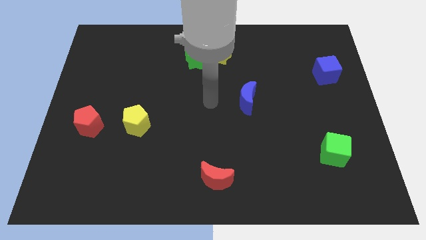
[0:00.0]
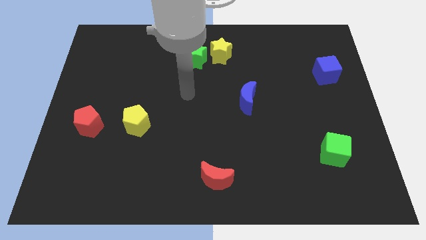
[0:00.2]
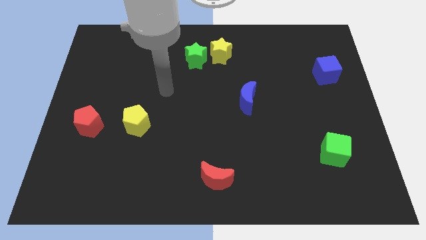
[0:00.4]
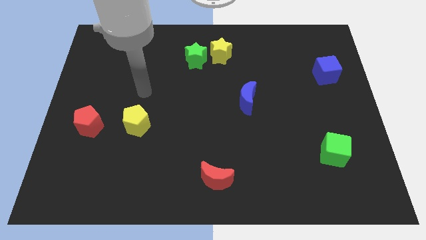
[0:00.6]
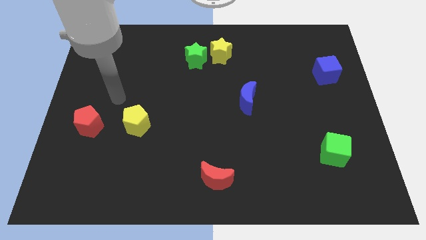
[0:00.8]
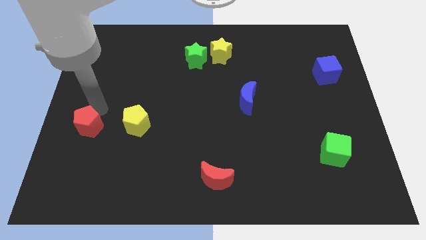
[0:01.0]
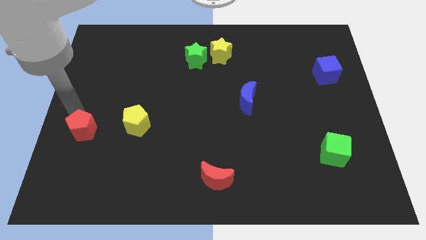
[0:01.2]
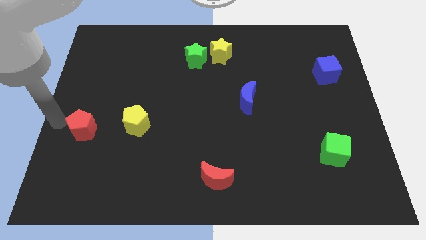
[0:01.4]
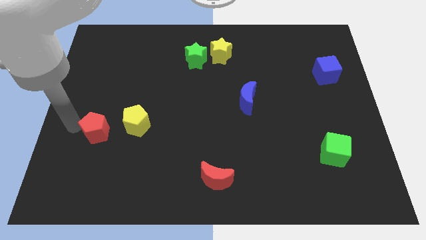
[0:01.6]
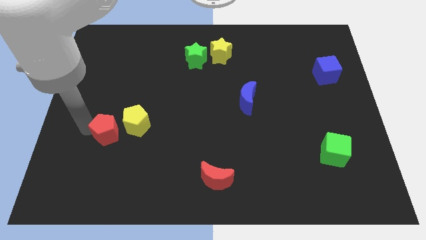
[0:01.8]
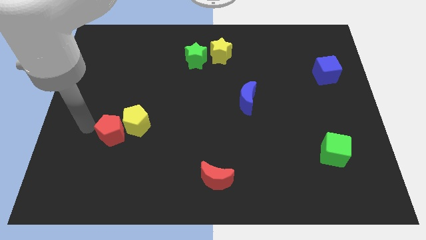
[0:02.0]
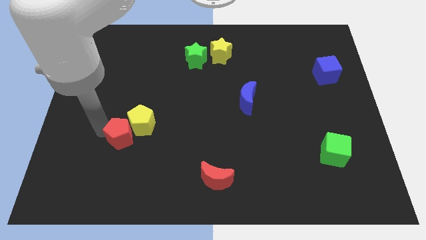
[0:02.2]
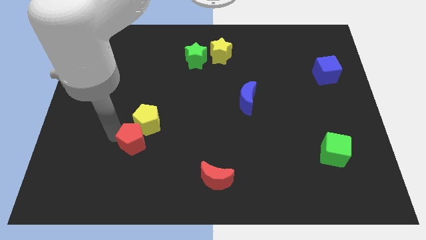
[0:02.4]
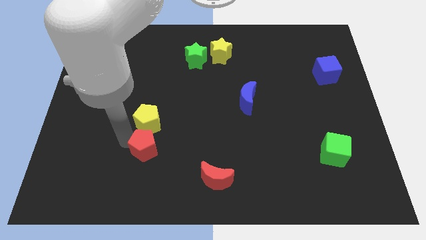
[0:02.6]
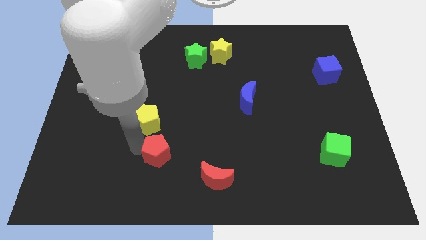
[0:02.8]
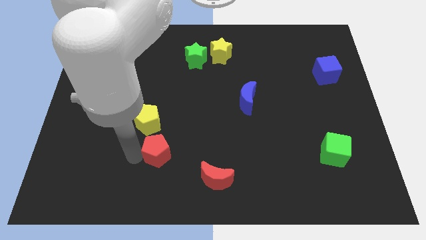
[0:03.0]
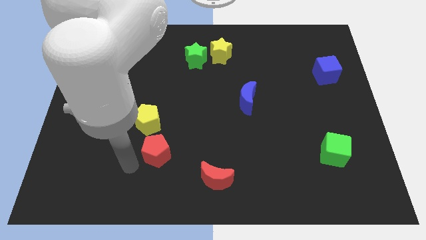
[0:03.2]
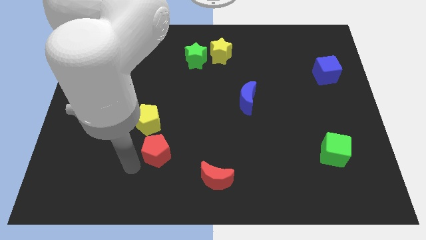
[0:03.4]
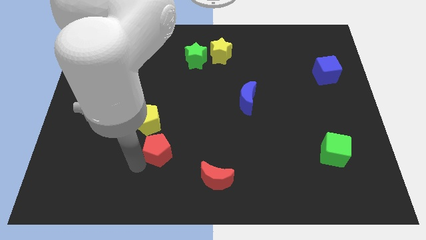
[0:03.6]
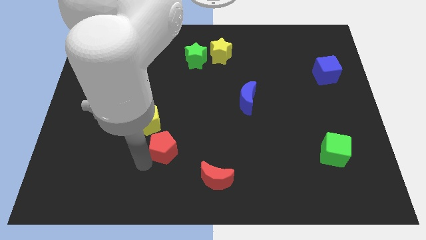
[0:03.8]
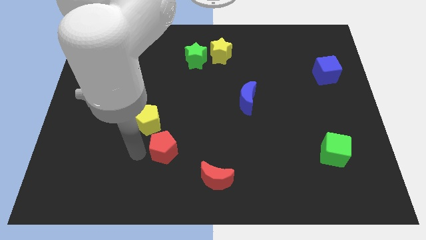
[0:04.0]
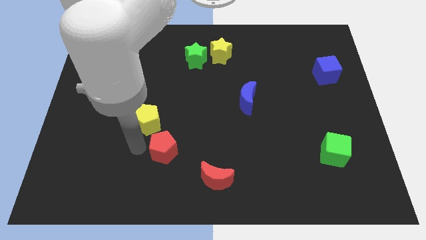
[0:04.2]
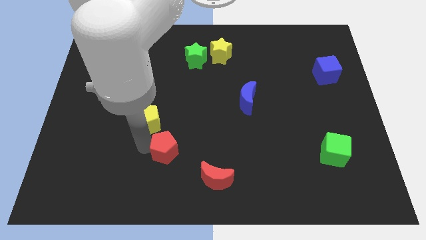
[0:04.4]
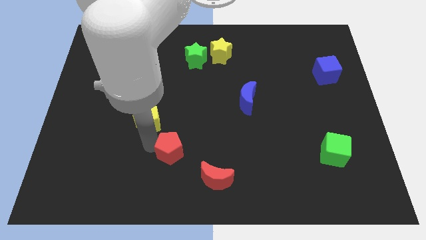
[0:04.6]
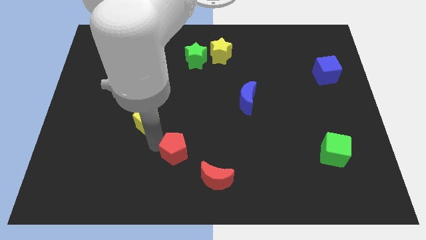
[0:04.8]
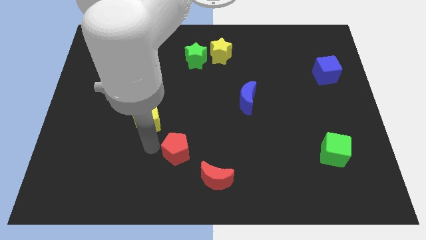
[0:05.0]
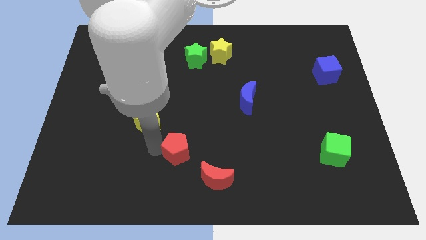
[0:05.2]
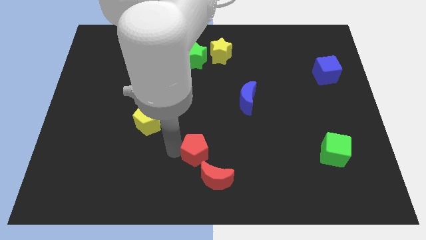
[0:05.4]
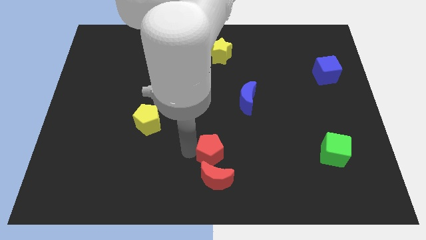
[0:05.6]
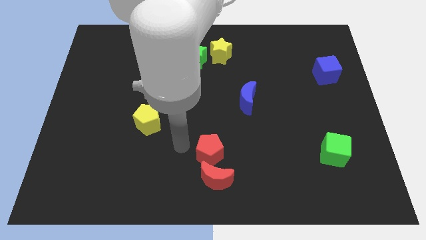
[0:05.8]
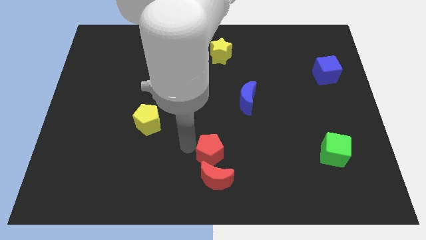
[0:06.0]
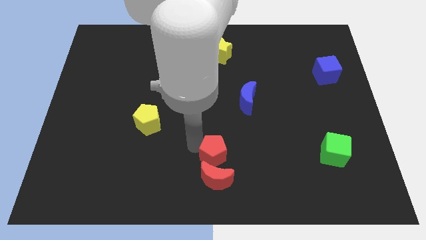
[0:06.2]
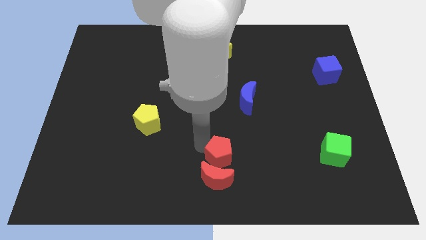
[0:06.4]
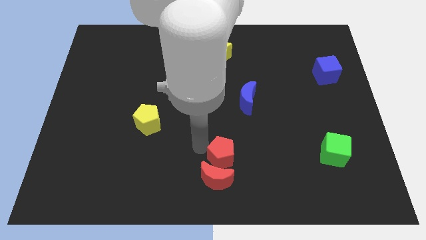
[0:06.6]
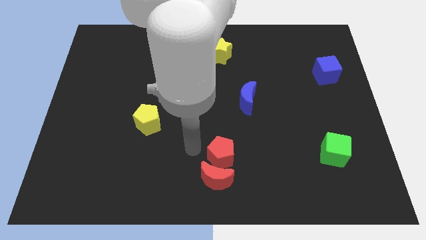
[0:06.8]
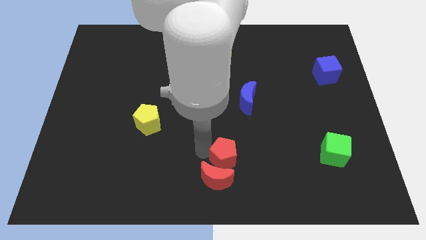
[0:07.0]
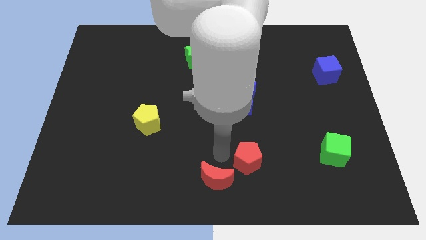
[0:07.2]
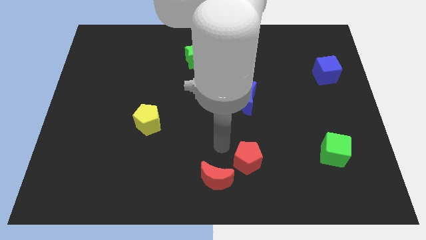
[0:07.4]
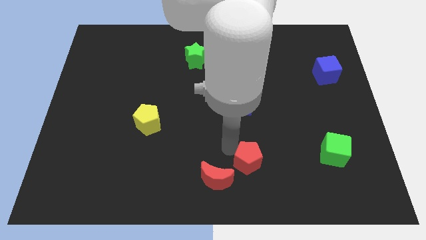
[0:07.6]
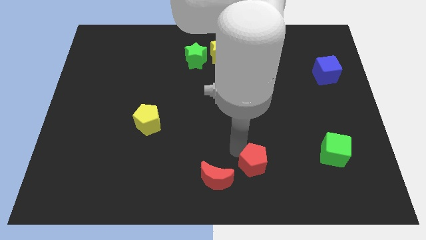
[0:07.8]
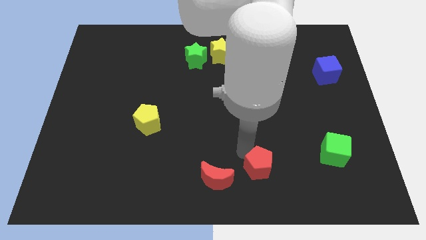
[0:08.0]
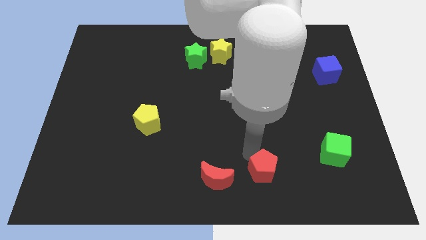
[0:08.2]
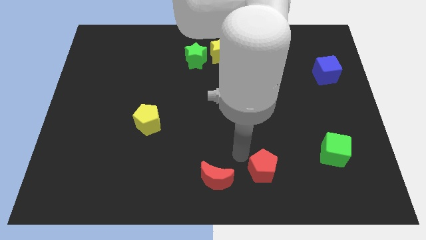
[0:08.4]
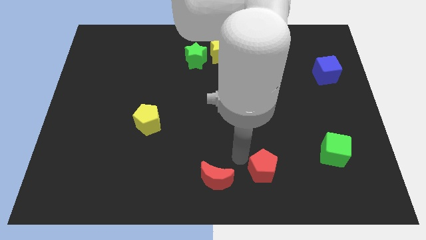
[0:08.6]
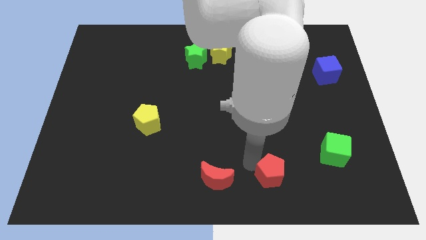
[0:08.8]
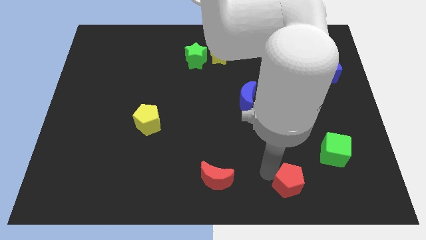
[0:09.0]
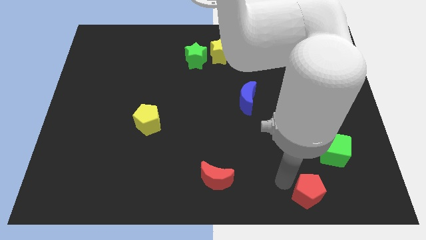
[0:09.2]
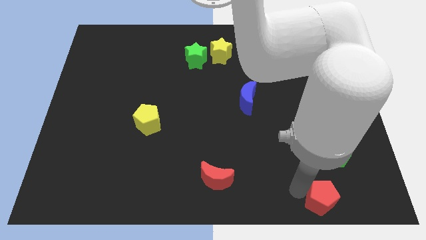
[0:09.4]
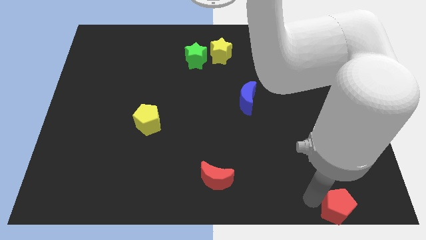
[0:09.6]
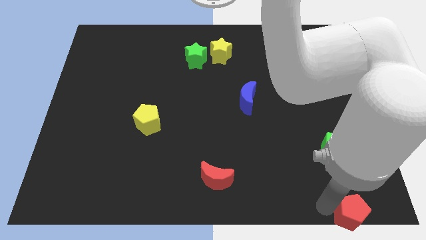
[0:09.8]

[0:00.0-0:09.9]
push the red pentagon to the lower right corner

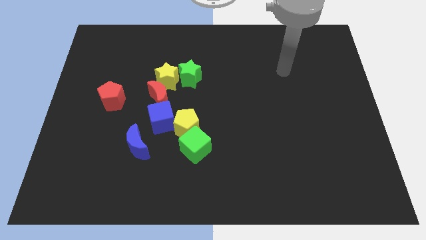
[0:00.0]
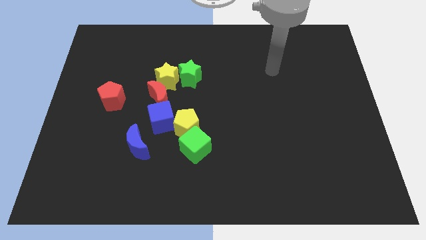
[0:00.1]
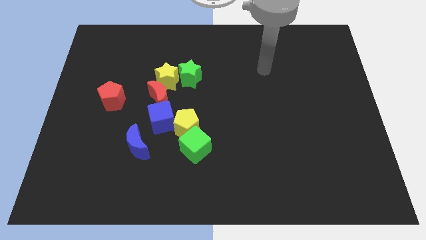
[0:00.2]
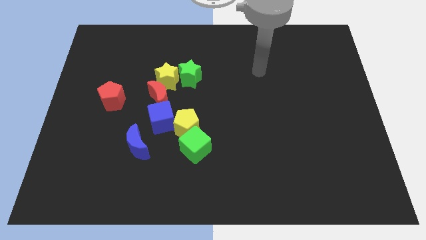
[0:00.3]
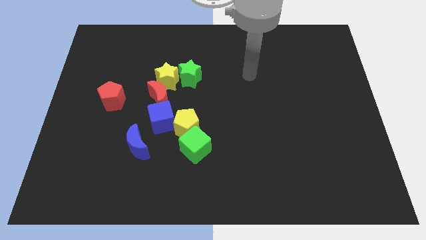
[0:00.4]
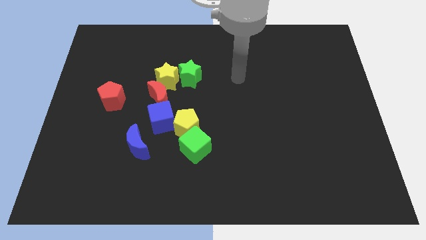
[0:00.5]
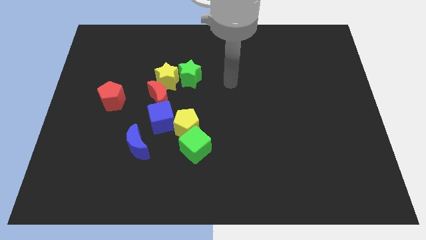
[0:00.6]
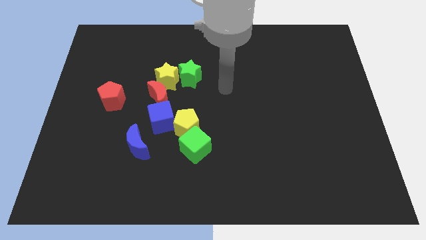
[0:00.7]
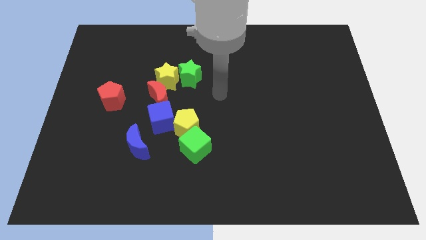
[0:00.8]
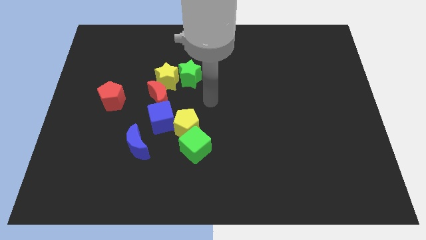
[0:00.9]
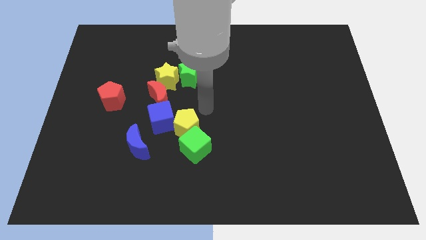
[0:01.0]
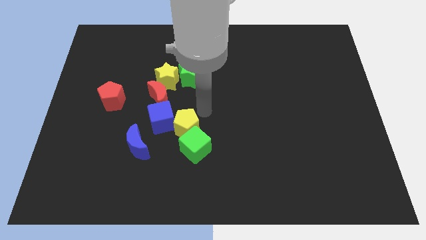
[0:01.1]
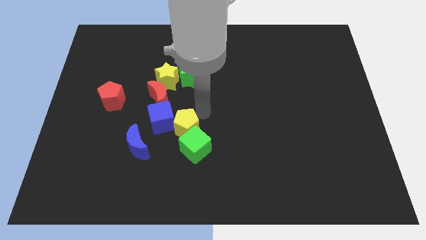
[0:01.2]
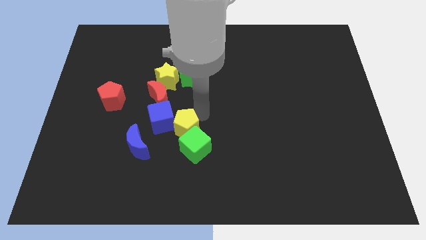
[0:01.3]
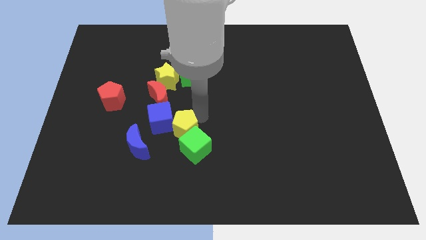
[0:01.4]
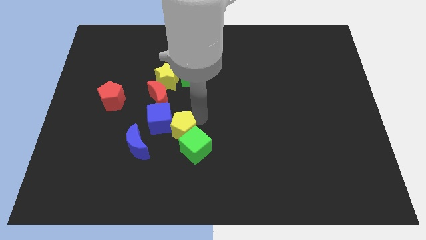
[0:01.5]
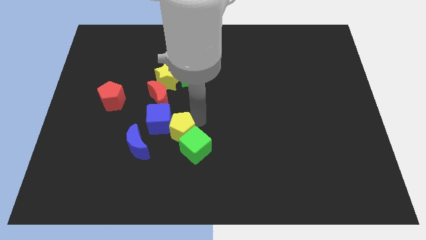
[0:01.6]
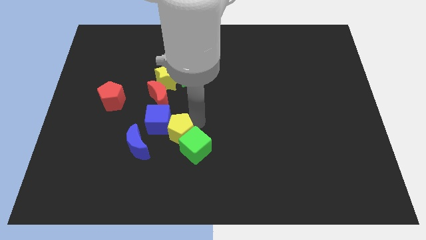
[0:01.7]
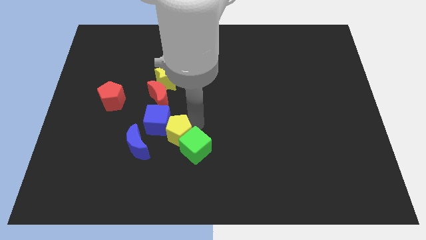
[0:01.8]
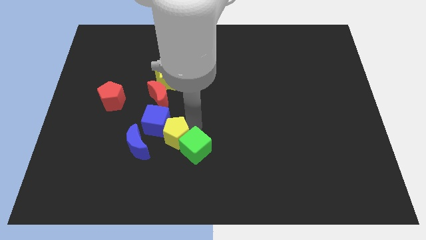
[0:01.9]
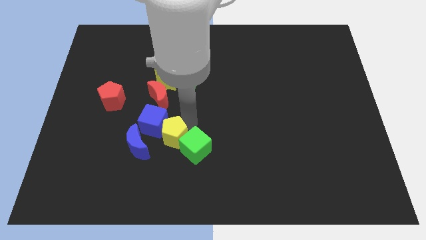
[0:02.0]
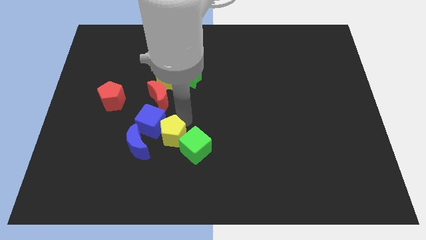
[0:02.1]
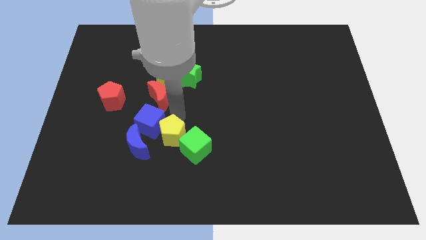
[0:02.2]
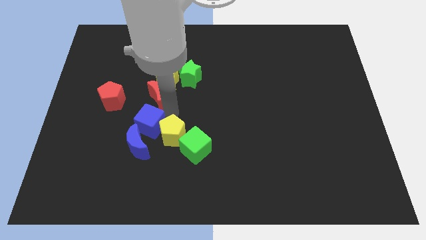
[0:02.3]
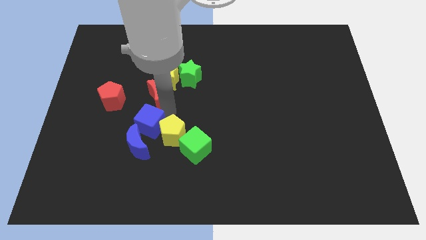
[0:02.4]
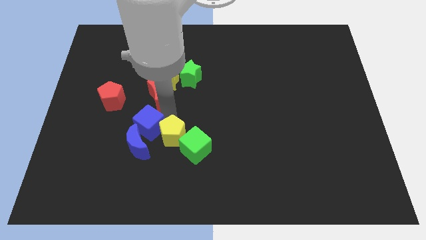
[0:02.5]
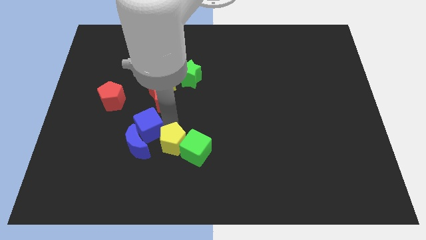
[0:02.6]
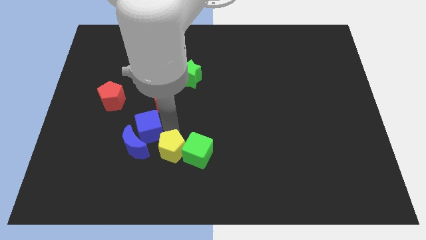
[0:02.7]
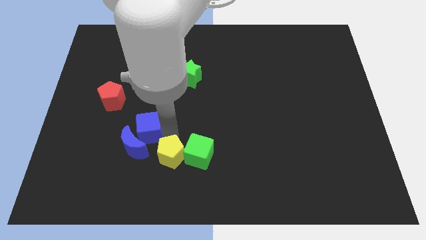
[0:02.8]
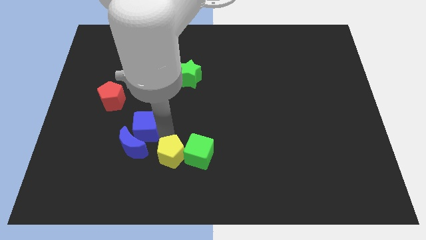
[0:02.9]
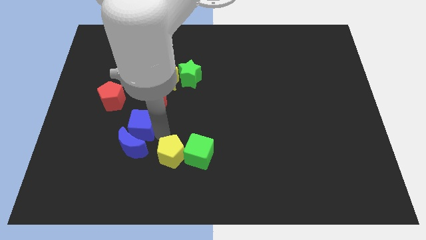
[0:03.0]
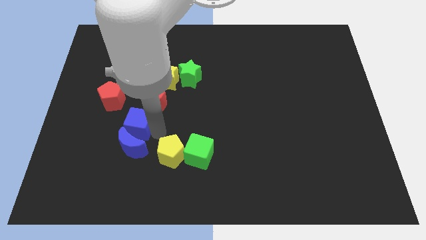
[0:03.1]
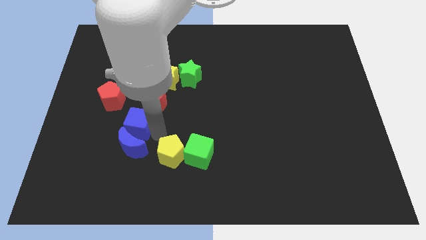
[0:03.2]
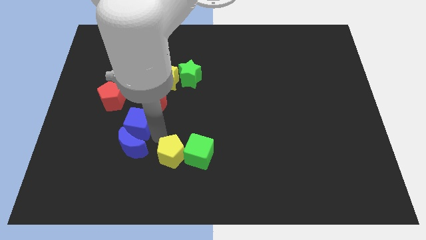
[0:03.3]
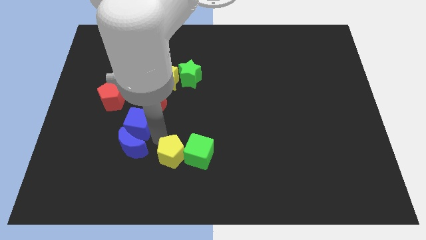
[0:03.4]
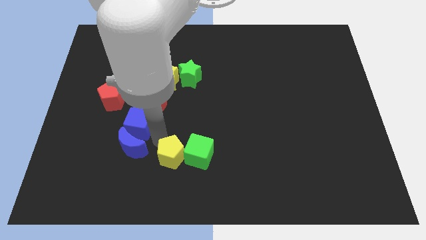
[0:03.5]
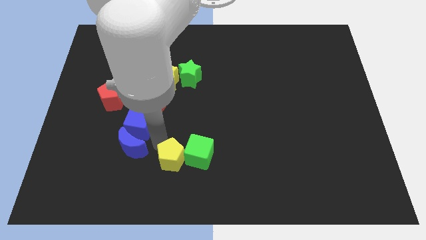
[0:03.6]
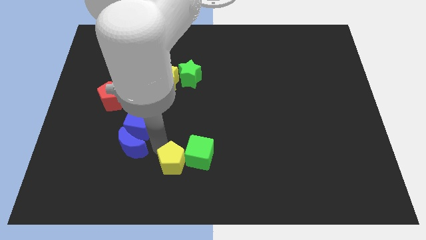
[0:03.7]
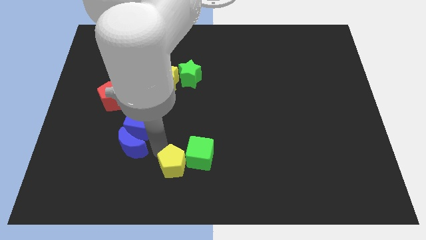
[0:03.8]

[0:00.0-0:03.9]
slide the yellow pentagon to the bottom
